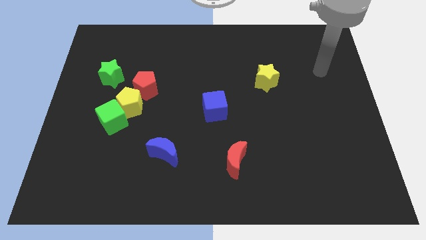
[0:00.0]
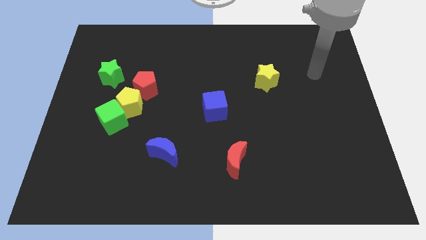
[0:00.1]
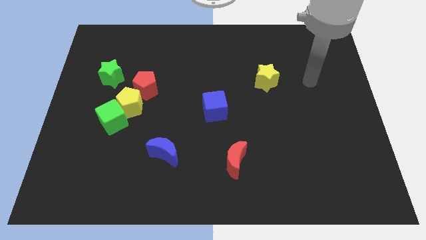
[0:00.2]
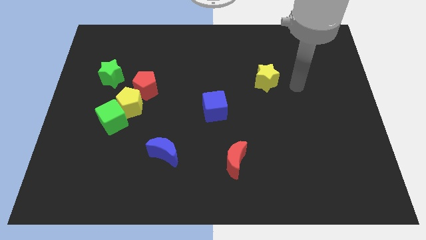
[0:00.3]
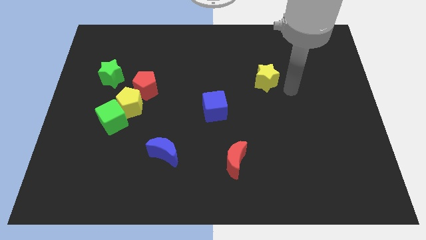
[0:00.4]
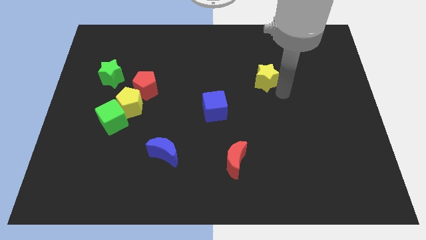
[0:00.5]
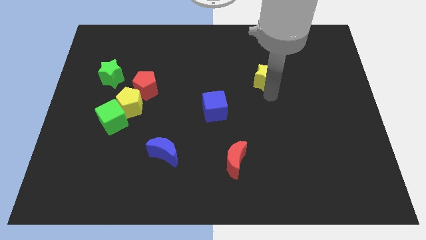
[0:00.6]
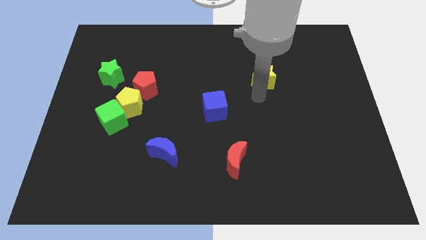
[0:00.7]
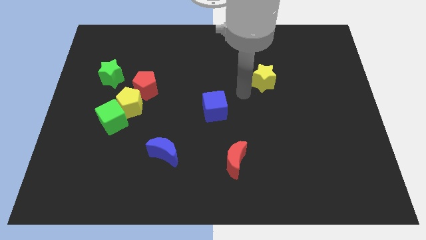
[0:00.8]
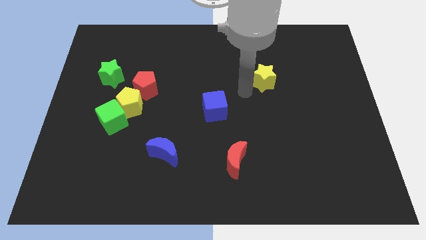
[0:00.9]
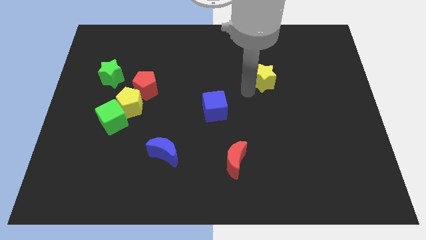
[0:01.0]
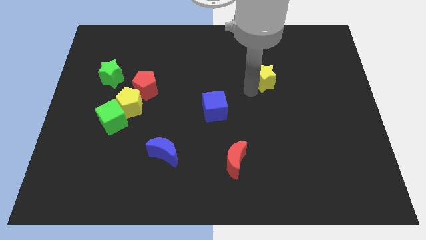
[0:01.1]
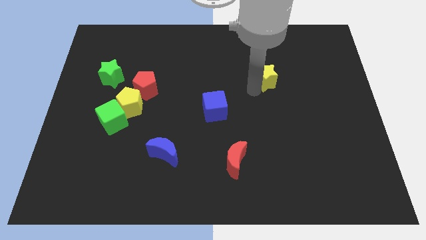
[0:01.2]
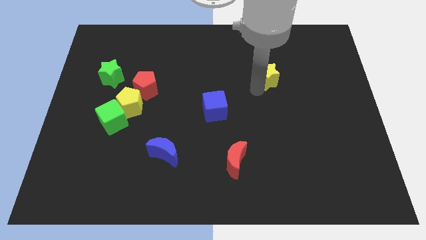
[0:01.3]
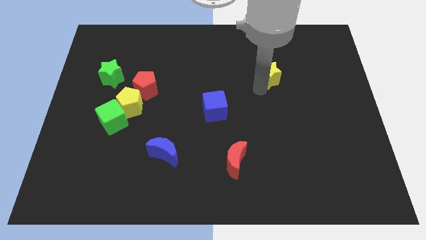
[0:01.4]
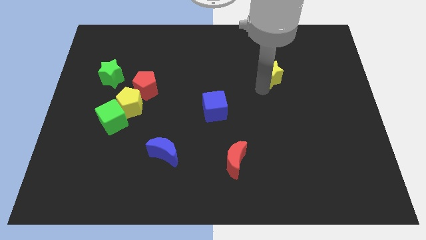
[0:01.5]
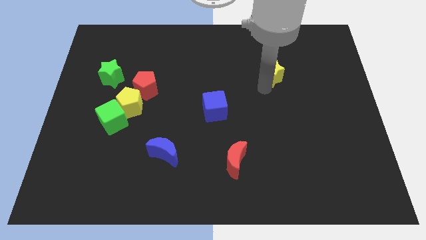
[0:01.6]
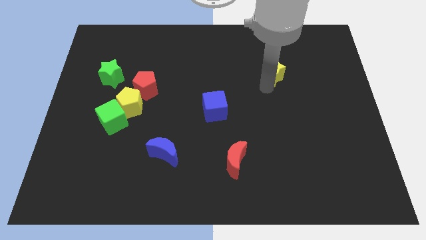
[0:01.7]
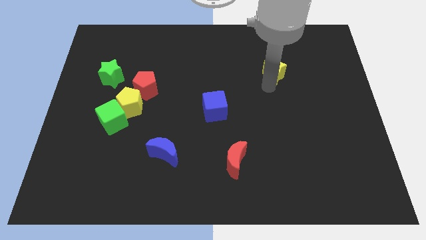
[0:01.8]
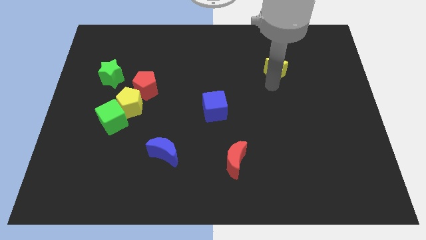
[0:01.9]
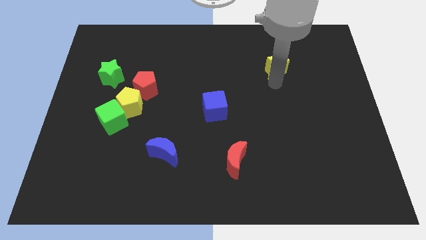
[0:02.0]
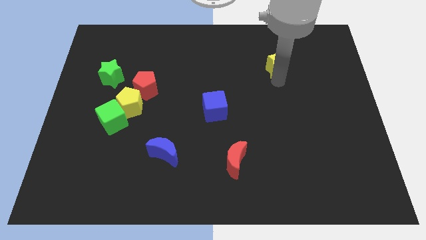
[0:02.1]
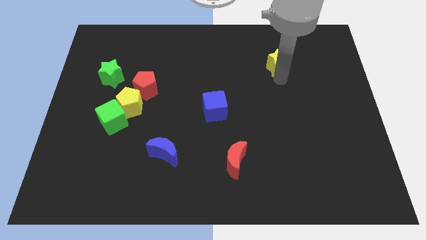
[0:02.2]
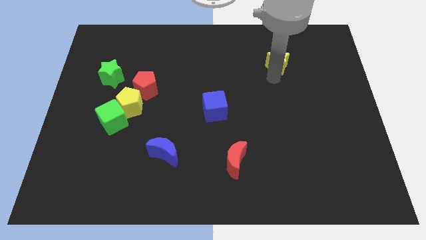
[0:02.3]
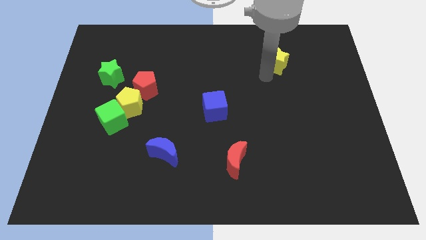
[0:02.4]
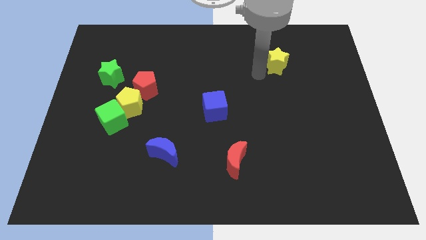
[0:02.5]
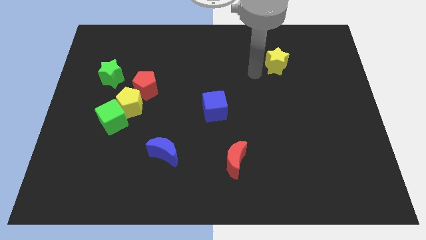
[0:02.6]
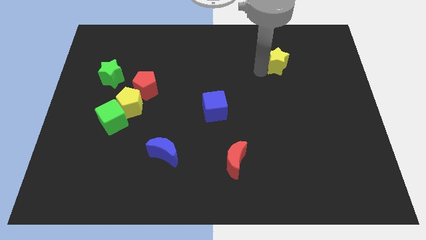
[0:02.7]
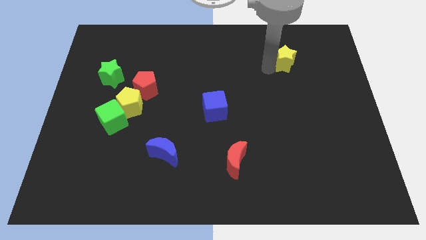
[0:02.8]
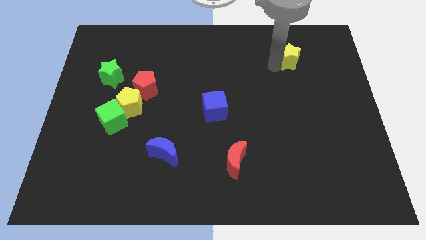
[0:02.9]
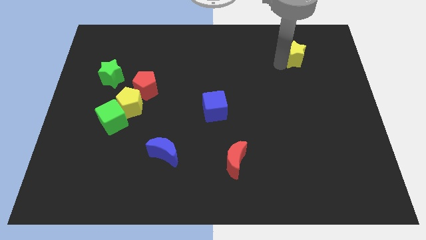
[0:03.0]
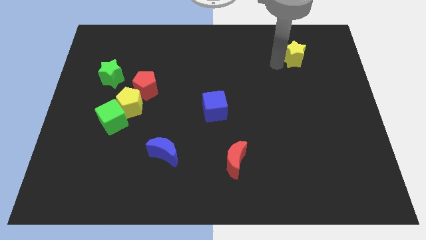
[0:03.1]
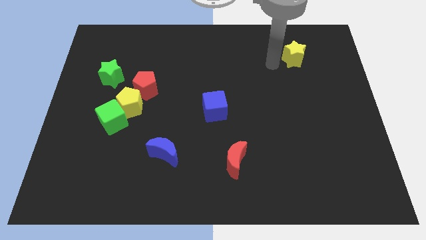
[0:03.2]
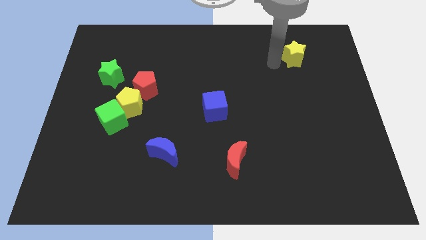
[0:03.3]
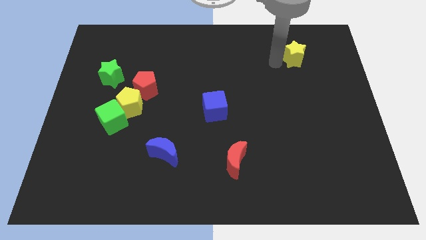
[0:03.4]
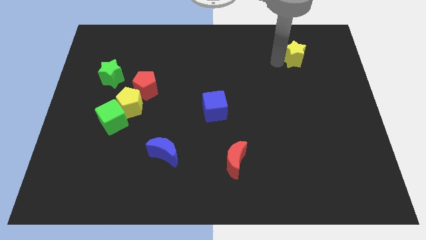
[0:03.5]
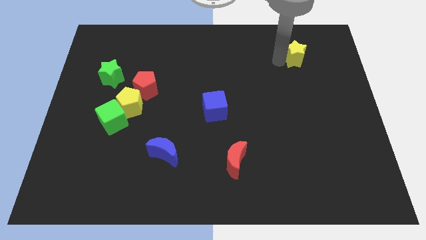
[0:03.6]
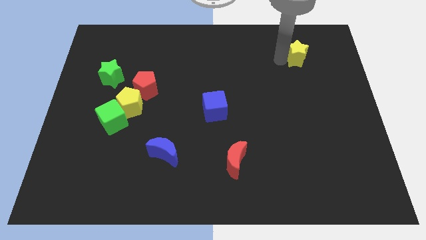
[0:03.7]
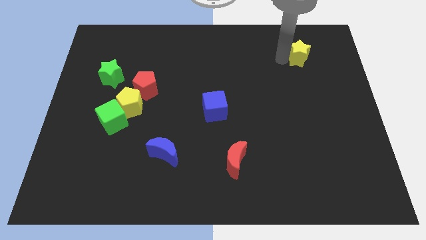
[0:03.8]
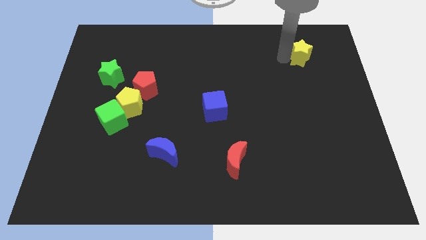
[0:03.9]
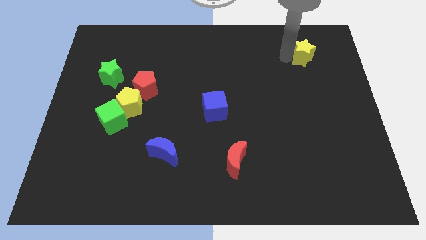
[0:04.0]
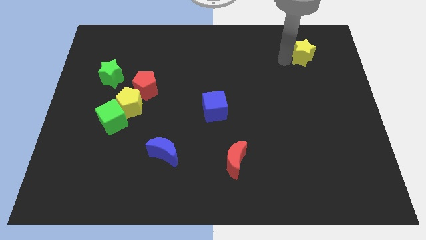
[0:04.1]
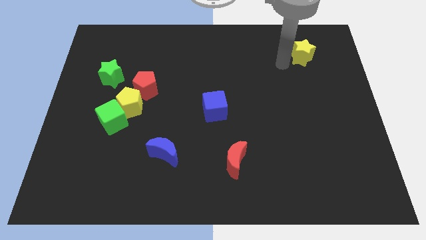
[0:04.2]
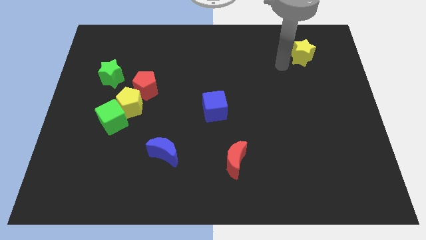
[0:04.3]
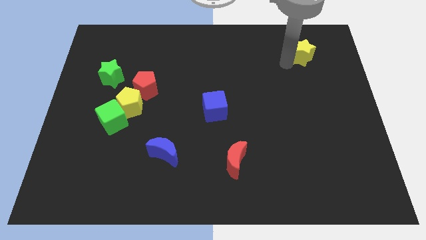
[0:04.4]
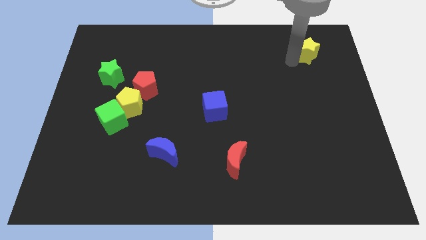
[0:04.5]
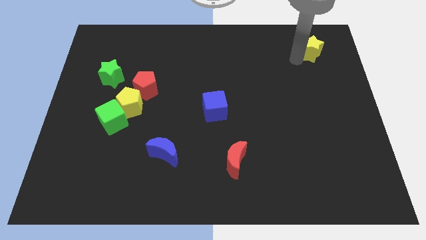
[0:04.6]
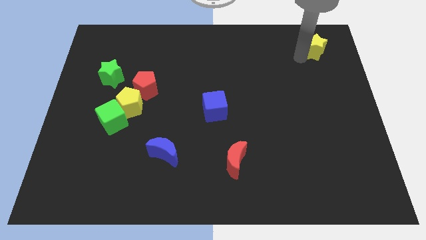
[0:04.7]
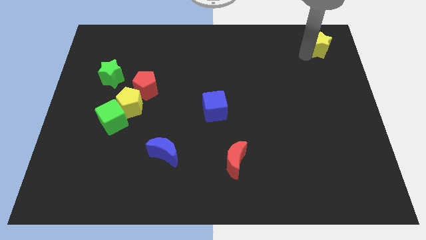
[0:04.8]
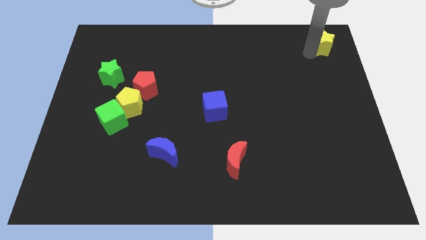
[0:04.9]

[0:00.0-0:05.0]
slide the yellow star to the top right of the board

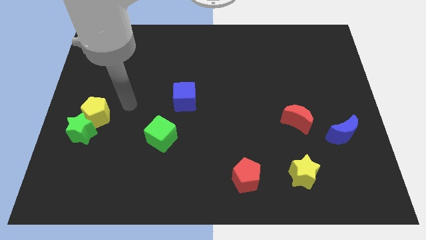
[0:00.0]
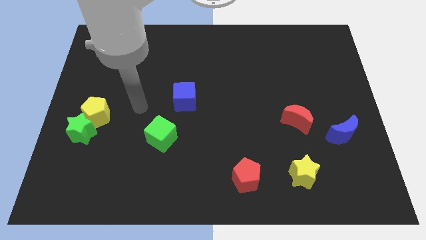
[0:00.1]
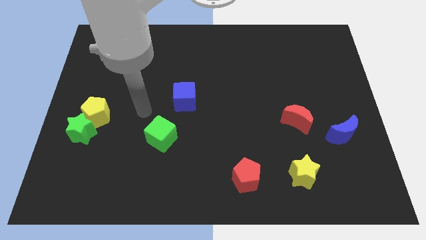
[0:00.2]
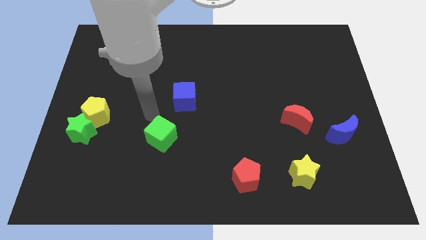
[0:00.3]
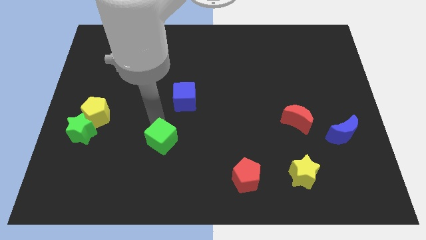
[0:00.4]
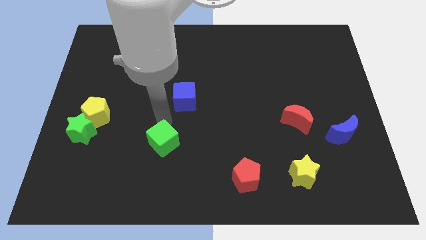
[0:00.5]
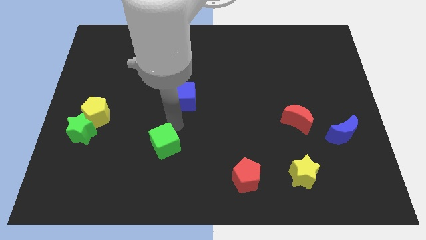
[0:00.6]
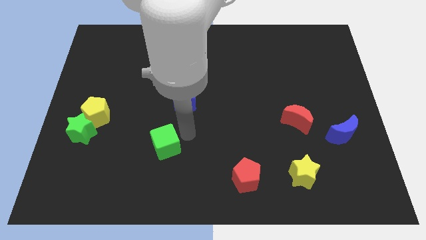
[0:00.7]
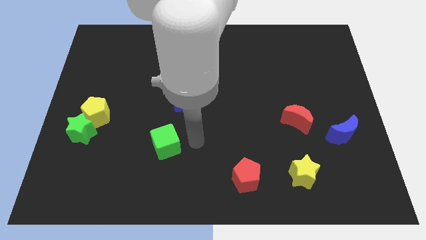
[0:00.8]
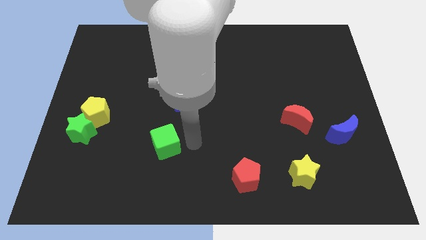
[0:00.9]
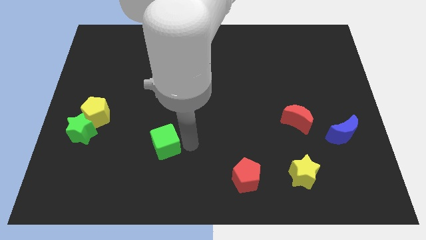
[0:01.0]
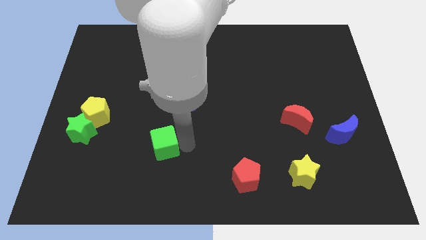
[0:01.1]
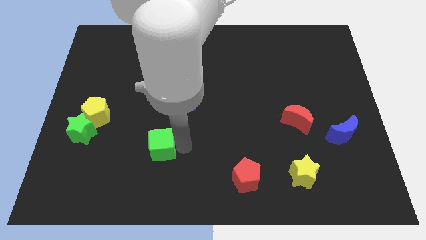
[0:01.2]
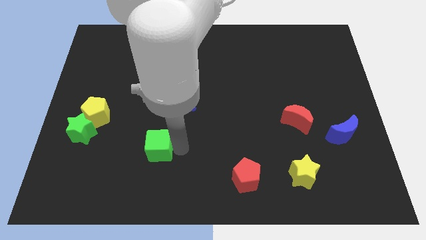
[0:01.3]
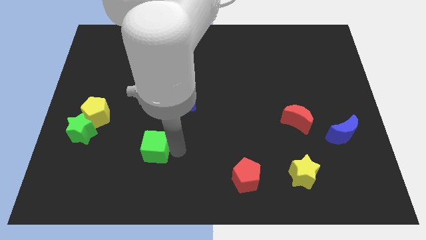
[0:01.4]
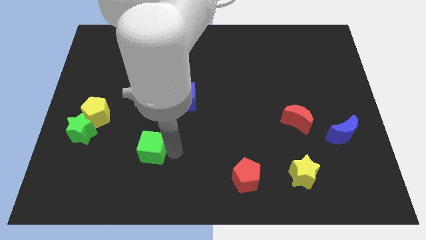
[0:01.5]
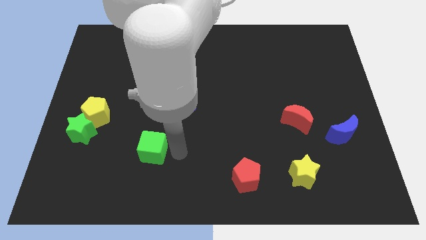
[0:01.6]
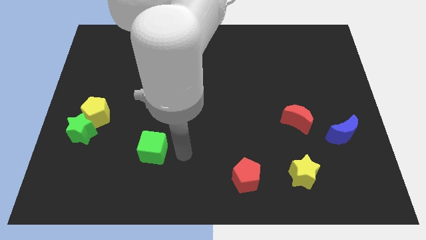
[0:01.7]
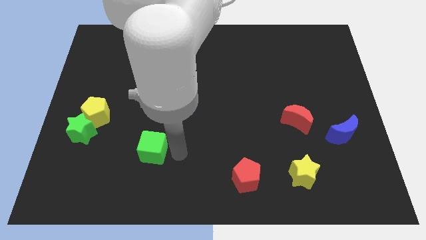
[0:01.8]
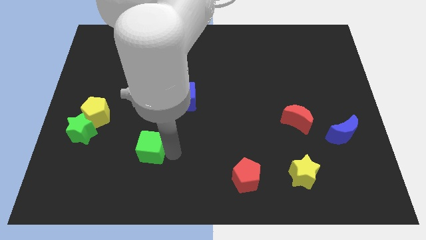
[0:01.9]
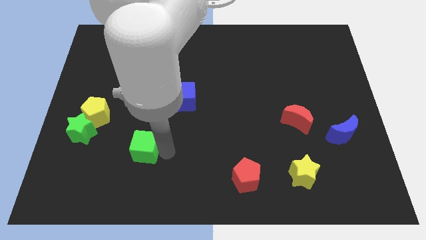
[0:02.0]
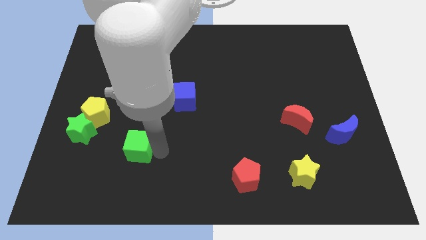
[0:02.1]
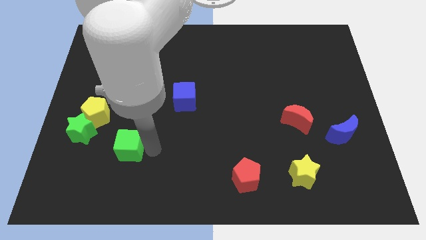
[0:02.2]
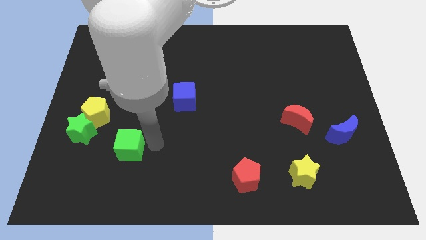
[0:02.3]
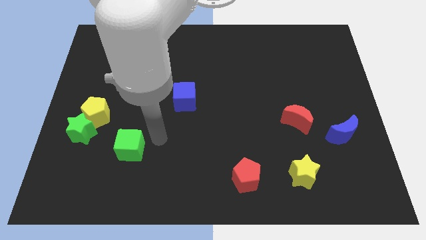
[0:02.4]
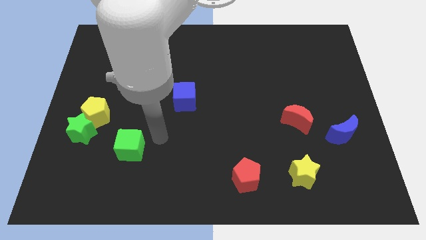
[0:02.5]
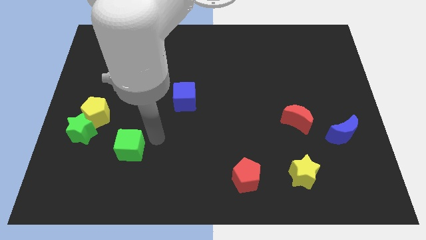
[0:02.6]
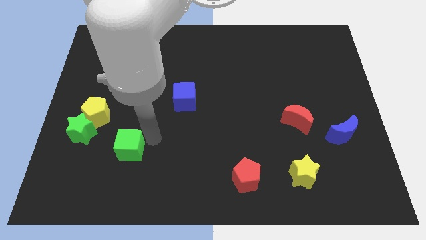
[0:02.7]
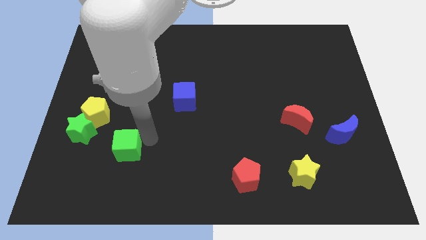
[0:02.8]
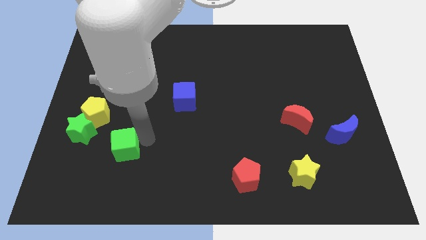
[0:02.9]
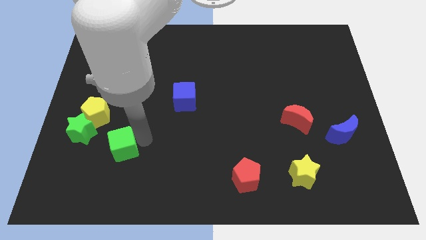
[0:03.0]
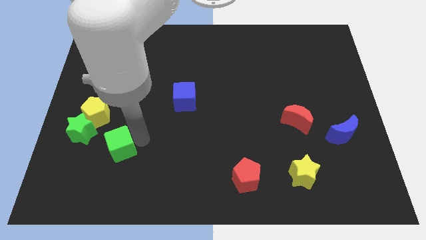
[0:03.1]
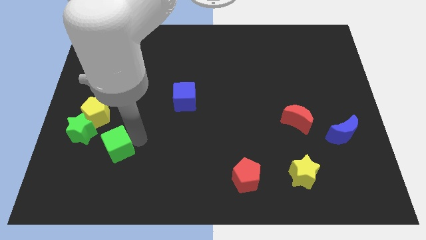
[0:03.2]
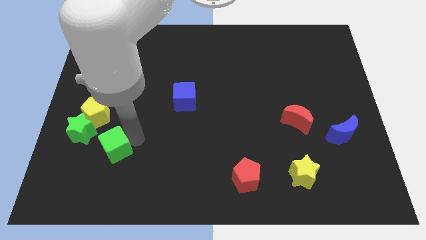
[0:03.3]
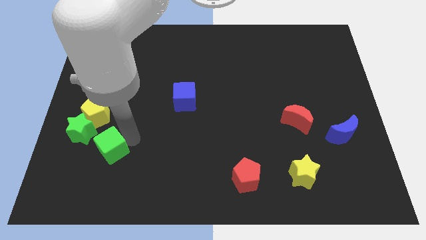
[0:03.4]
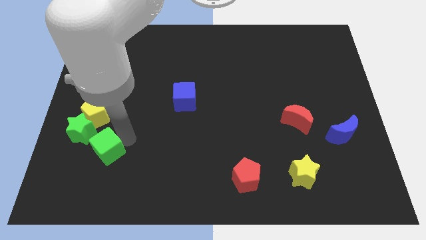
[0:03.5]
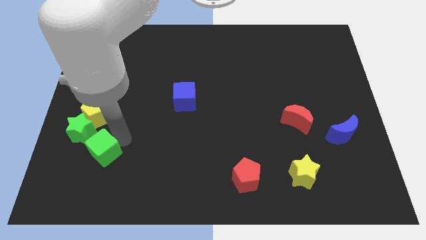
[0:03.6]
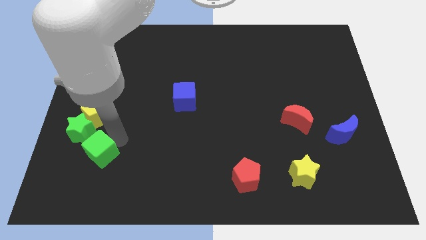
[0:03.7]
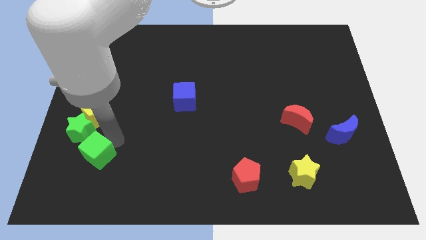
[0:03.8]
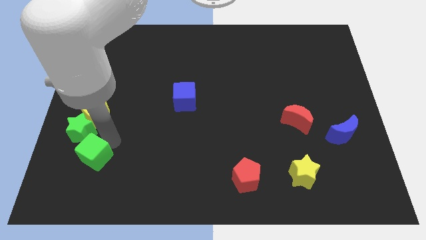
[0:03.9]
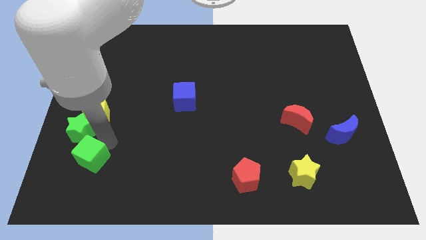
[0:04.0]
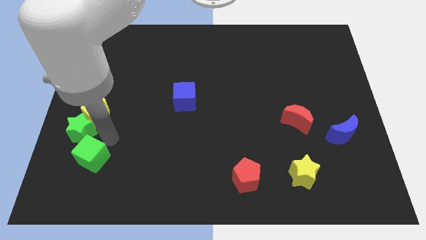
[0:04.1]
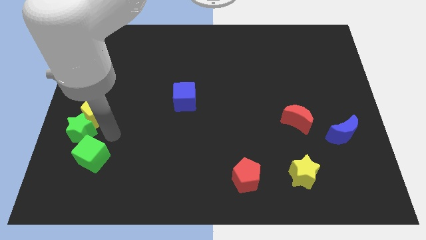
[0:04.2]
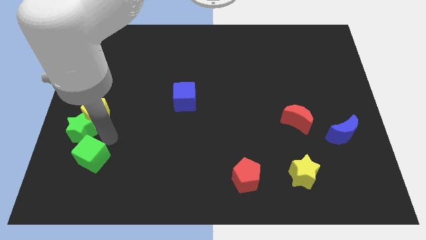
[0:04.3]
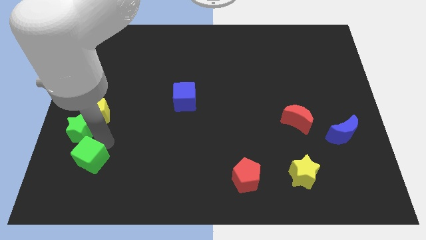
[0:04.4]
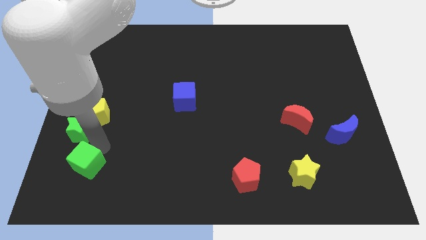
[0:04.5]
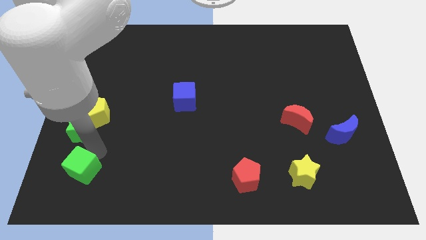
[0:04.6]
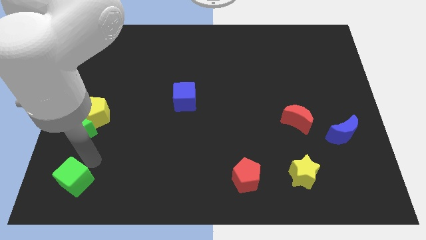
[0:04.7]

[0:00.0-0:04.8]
slide the green cube to the bottom left
